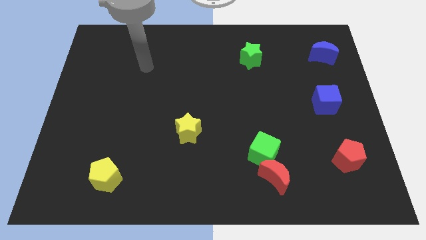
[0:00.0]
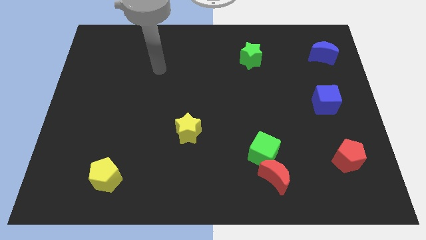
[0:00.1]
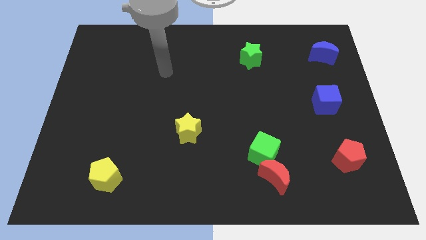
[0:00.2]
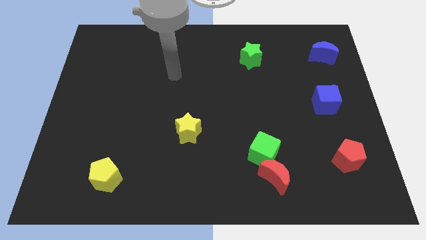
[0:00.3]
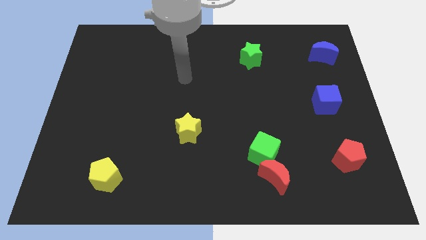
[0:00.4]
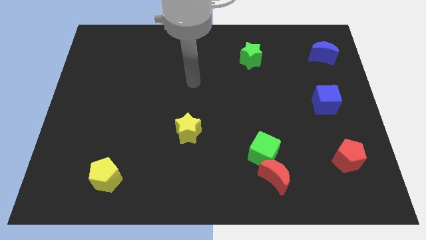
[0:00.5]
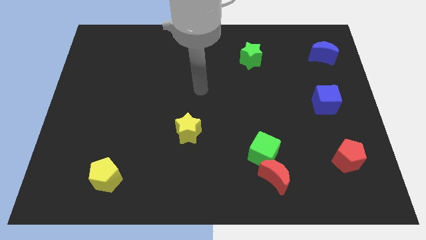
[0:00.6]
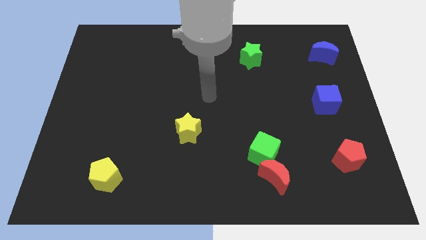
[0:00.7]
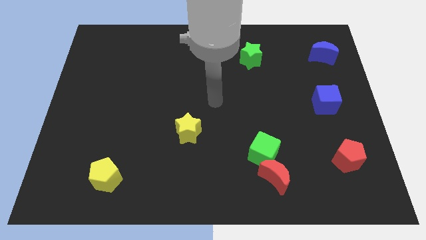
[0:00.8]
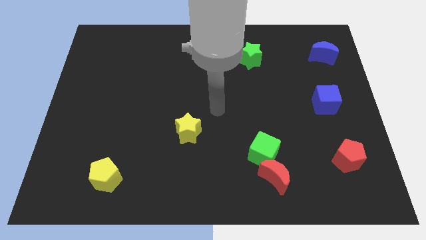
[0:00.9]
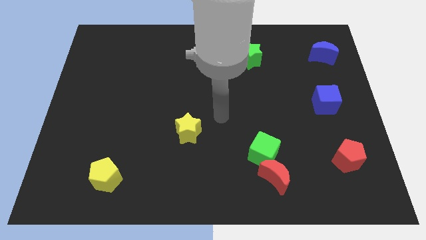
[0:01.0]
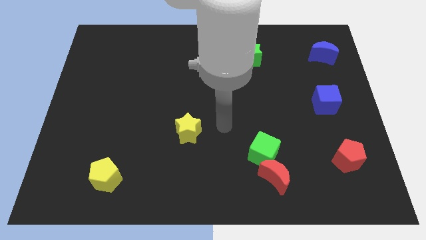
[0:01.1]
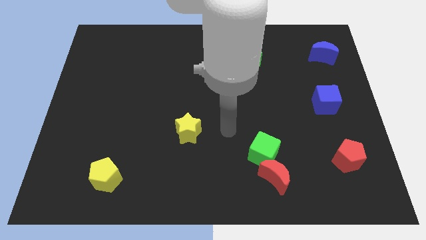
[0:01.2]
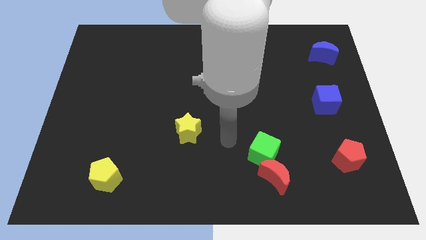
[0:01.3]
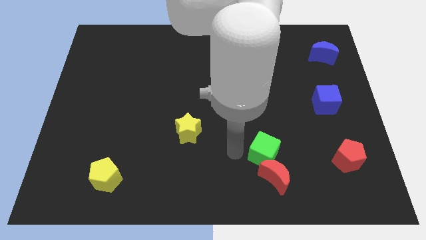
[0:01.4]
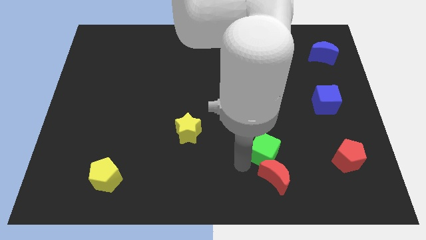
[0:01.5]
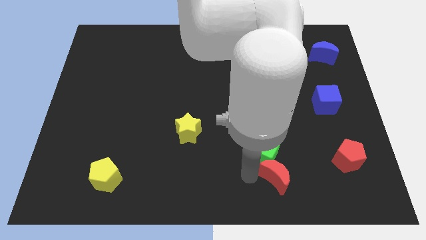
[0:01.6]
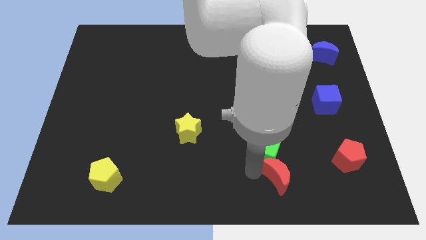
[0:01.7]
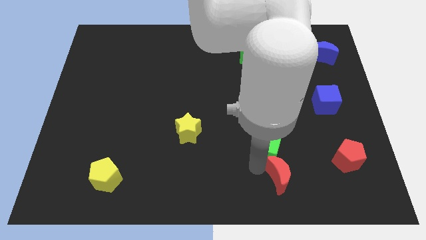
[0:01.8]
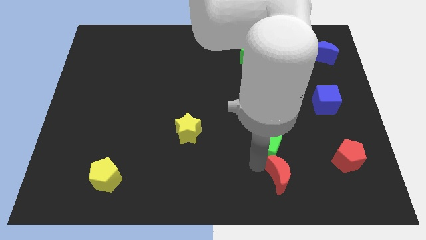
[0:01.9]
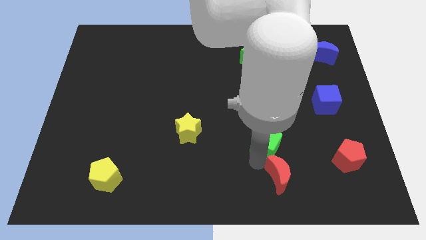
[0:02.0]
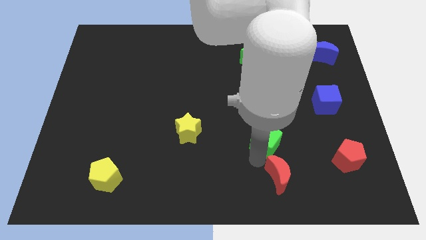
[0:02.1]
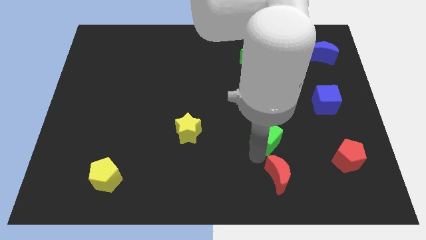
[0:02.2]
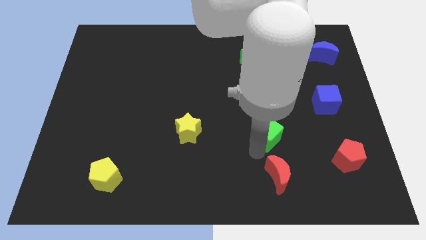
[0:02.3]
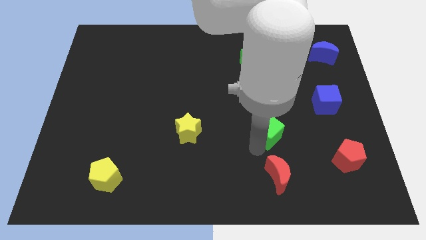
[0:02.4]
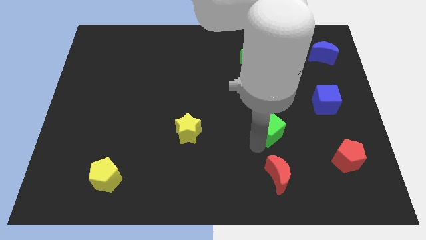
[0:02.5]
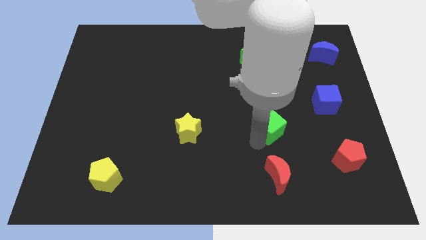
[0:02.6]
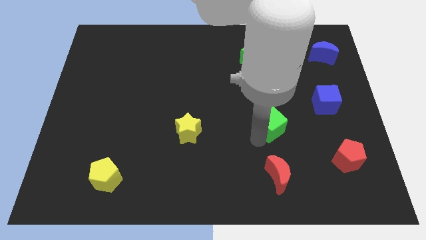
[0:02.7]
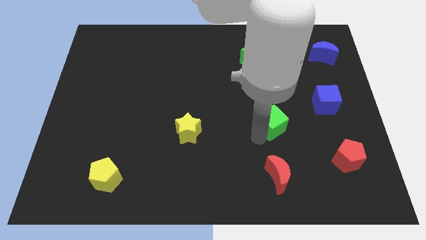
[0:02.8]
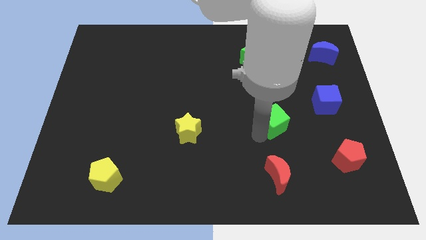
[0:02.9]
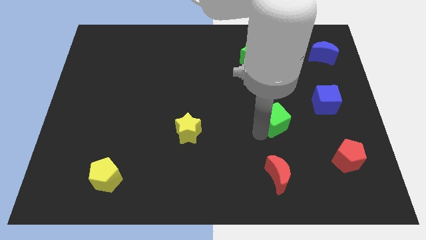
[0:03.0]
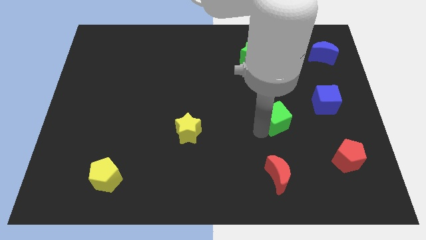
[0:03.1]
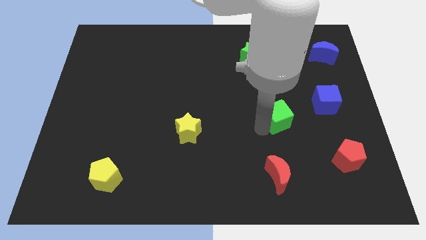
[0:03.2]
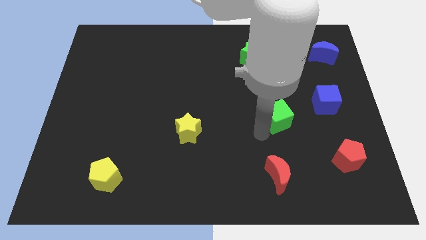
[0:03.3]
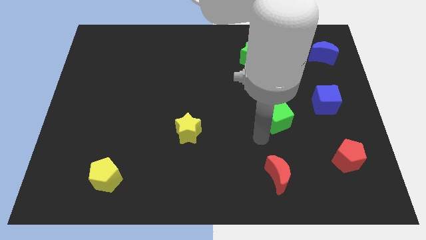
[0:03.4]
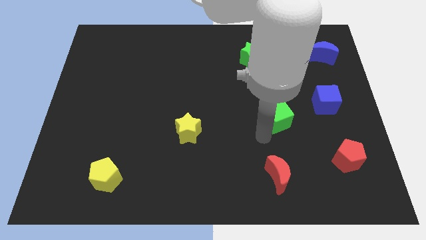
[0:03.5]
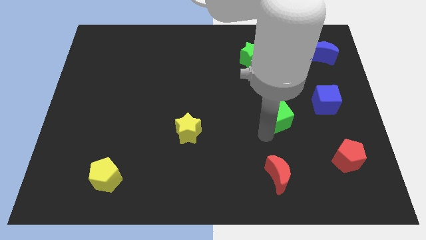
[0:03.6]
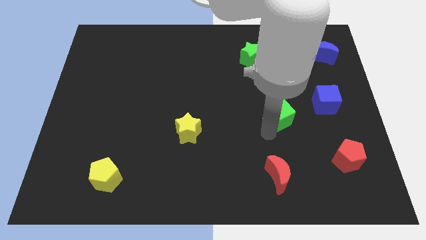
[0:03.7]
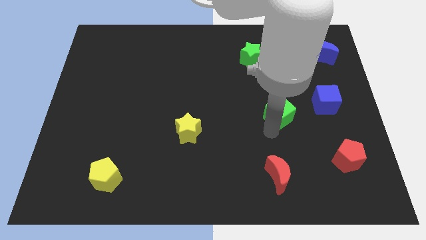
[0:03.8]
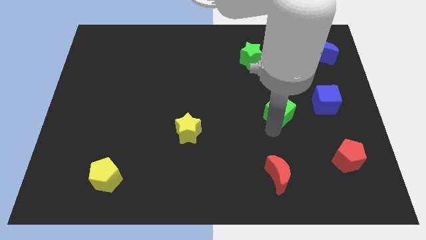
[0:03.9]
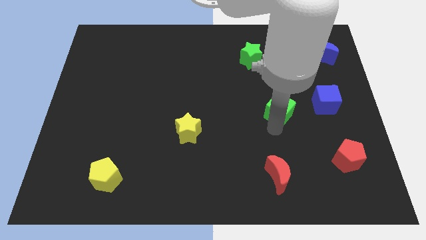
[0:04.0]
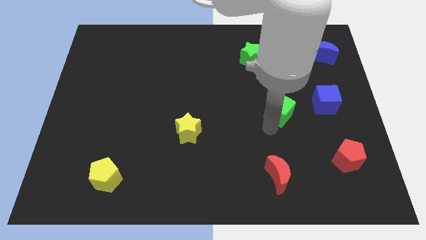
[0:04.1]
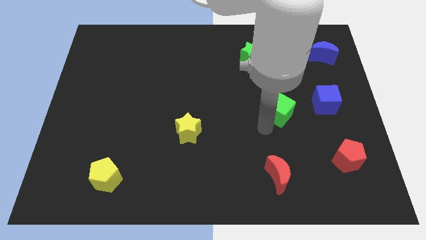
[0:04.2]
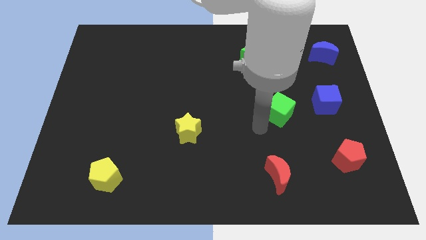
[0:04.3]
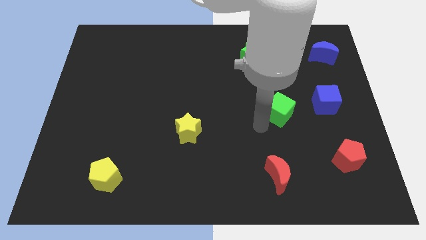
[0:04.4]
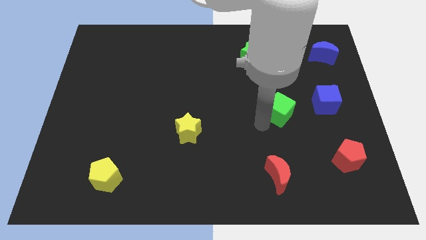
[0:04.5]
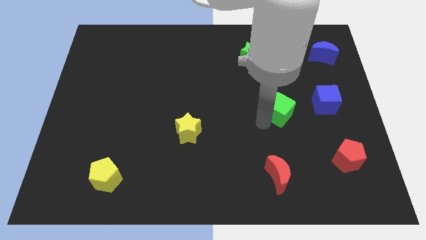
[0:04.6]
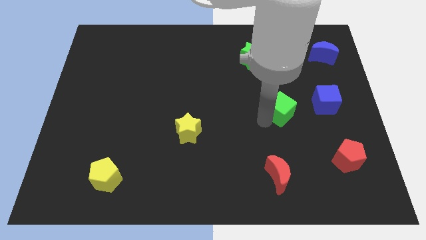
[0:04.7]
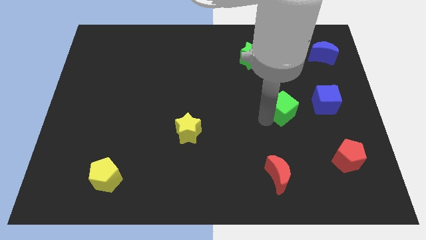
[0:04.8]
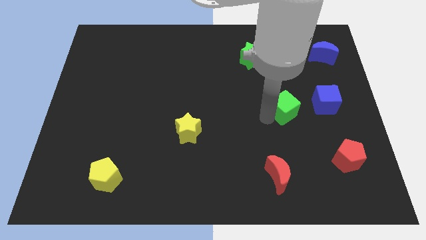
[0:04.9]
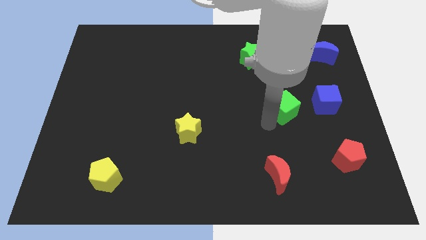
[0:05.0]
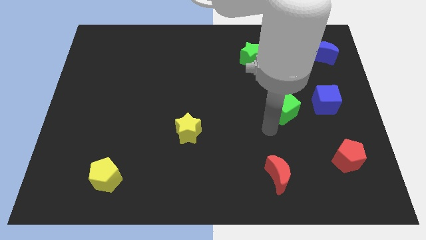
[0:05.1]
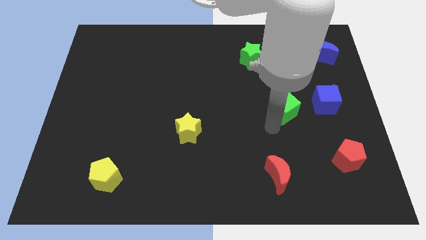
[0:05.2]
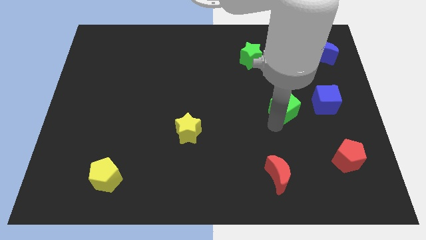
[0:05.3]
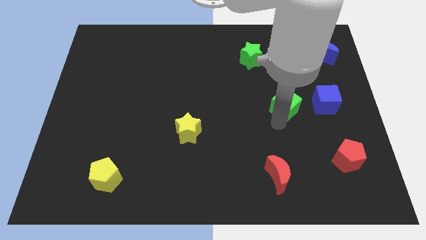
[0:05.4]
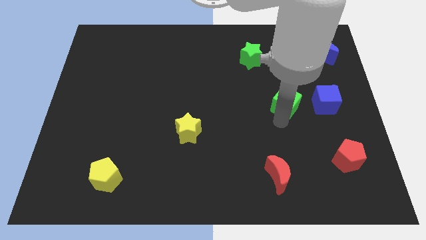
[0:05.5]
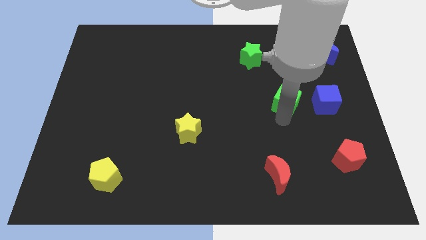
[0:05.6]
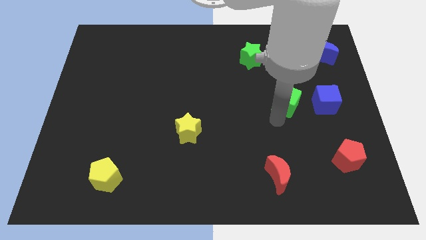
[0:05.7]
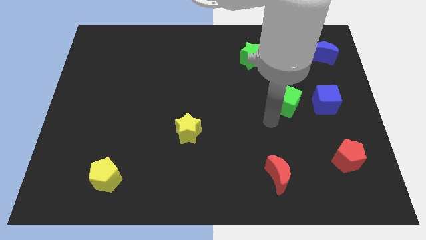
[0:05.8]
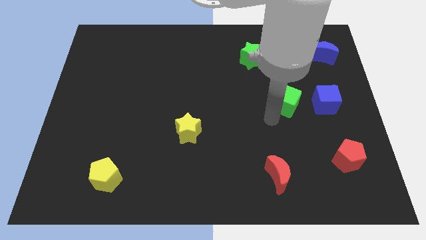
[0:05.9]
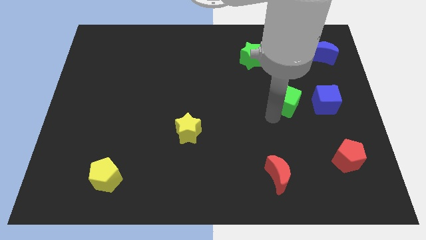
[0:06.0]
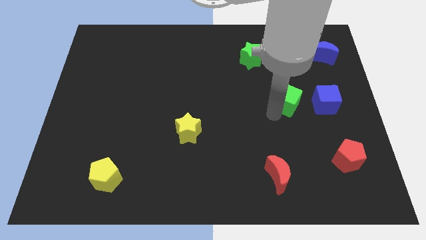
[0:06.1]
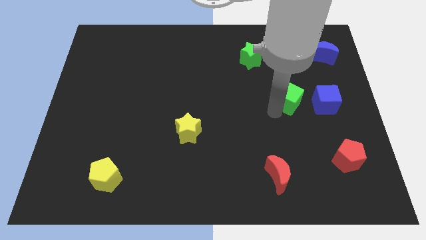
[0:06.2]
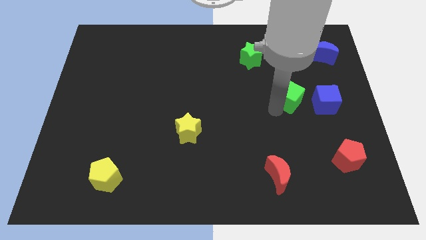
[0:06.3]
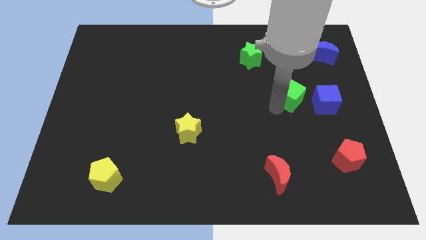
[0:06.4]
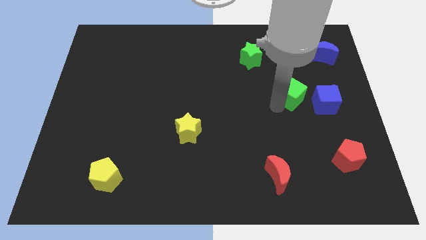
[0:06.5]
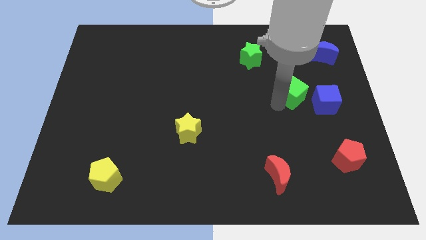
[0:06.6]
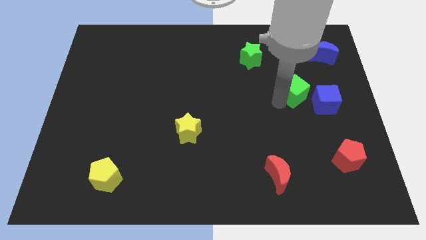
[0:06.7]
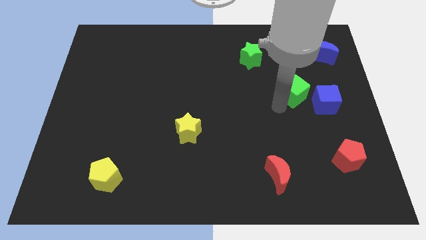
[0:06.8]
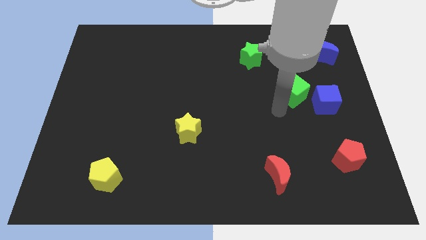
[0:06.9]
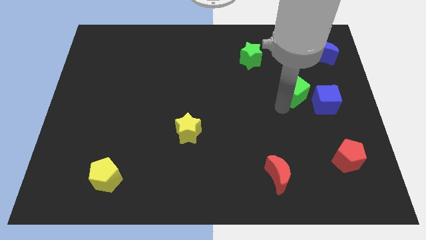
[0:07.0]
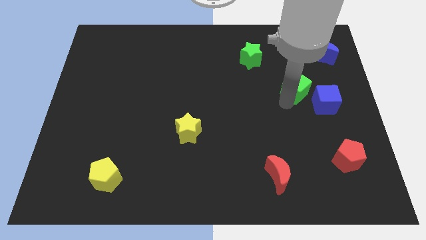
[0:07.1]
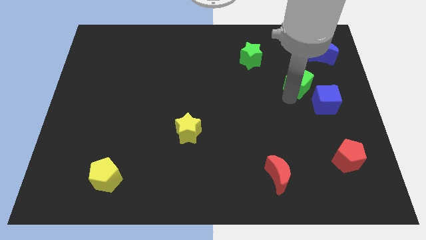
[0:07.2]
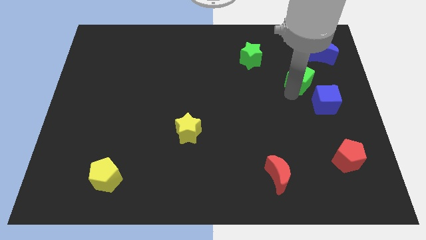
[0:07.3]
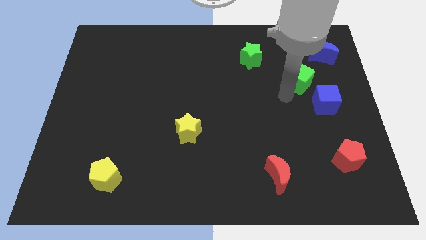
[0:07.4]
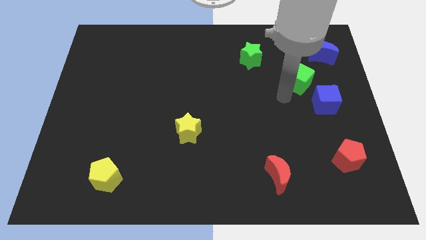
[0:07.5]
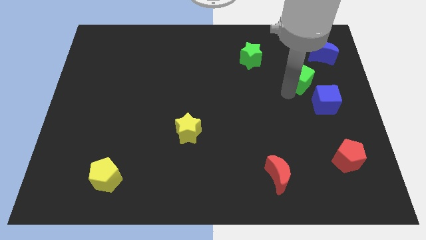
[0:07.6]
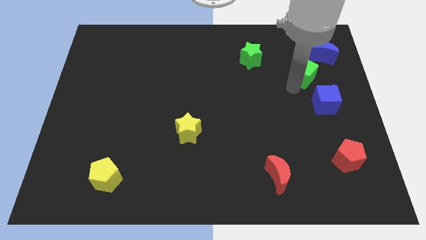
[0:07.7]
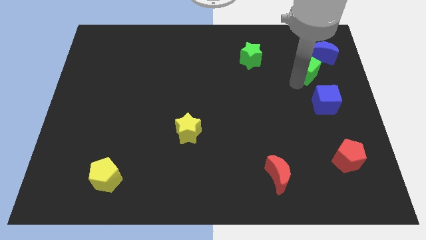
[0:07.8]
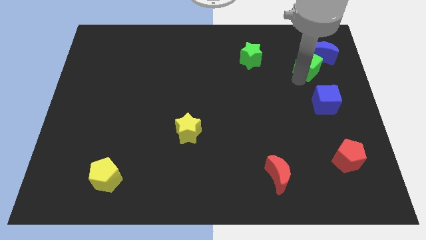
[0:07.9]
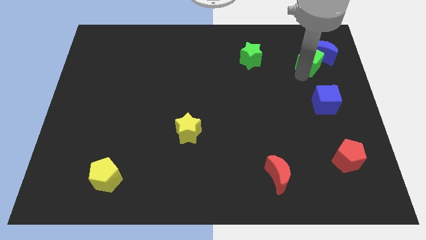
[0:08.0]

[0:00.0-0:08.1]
put the green cube to the blue moon

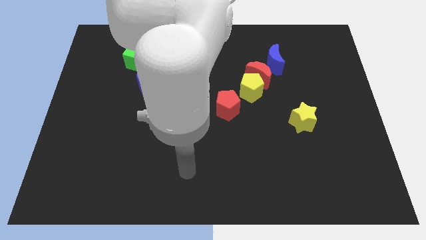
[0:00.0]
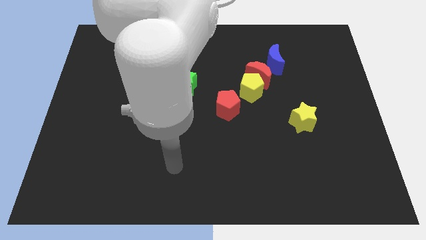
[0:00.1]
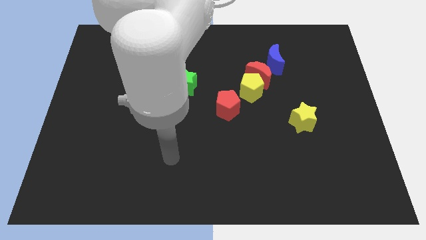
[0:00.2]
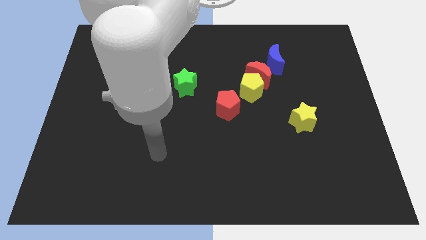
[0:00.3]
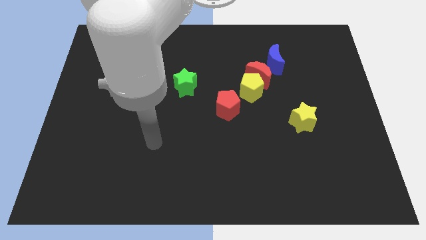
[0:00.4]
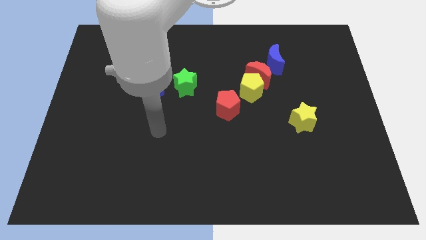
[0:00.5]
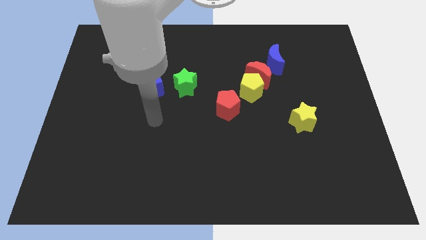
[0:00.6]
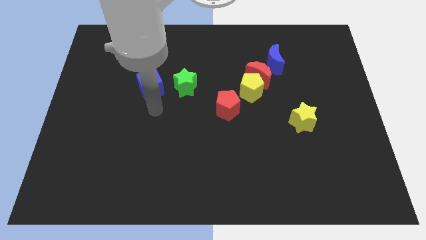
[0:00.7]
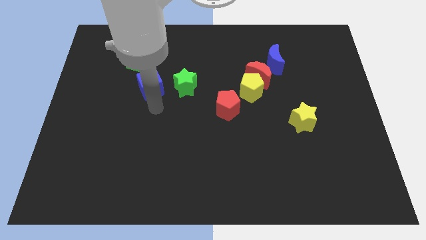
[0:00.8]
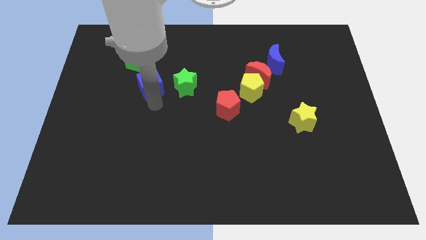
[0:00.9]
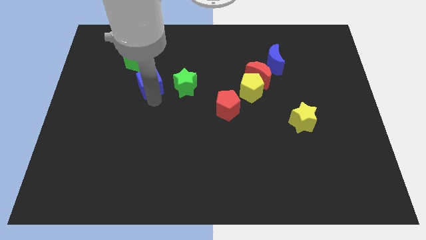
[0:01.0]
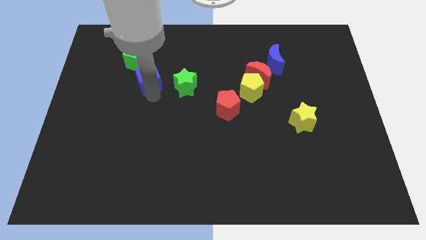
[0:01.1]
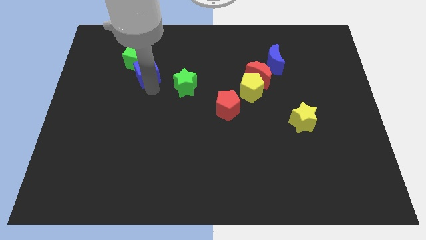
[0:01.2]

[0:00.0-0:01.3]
slide the blue cube to the green cube
